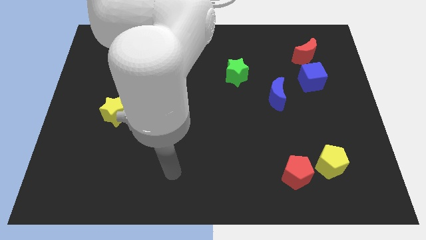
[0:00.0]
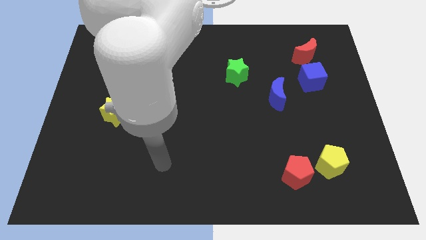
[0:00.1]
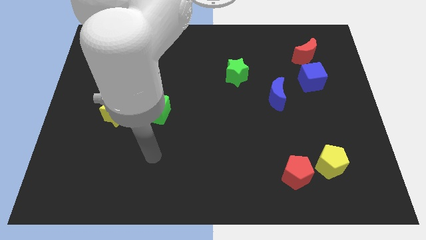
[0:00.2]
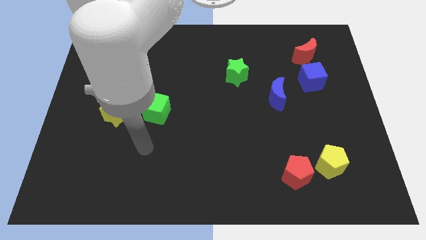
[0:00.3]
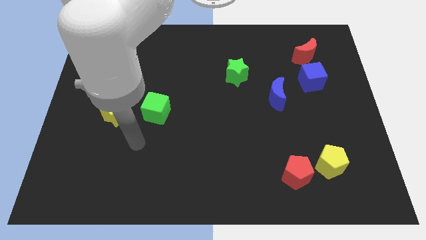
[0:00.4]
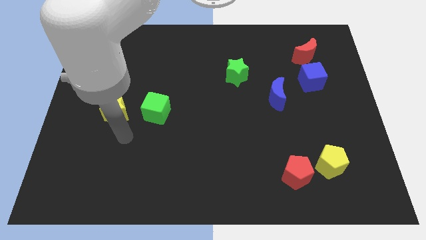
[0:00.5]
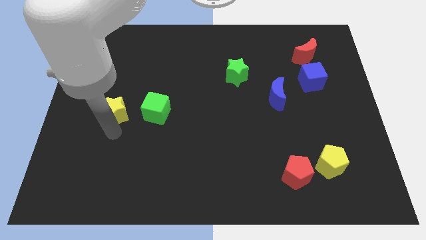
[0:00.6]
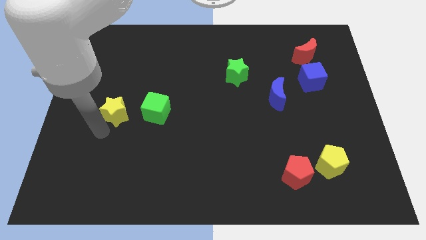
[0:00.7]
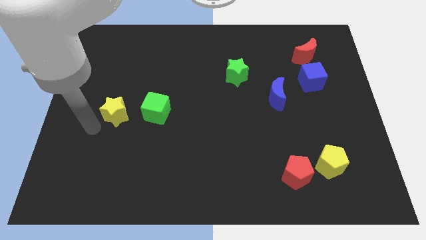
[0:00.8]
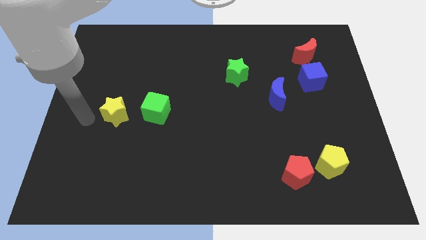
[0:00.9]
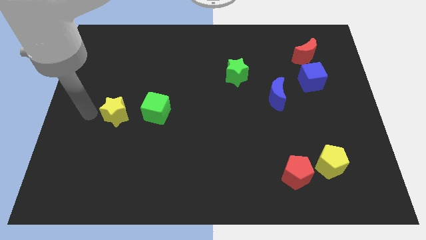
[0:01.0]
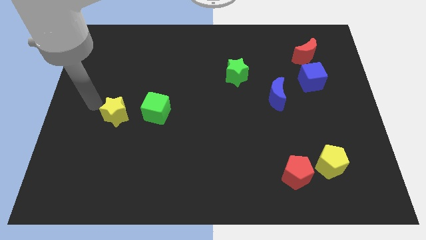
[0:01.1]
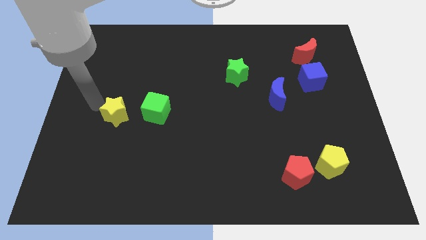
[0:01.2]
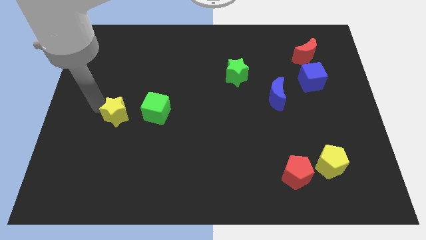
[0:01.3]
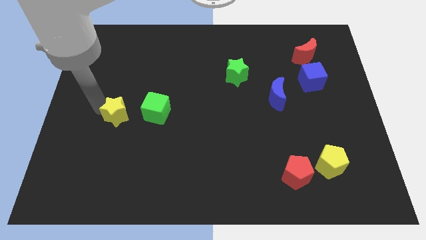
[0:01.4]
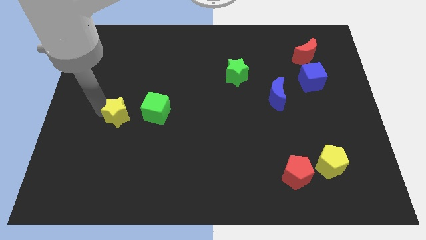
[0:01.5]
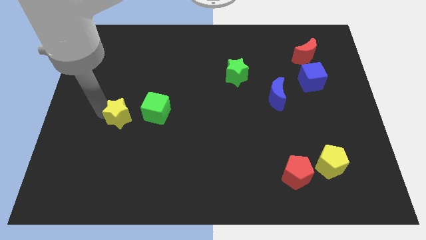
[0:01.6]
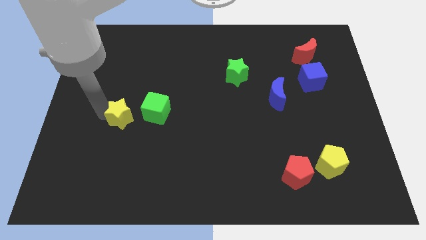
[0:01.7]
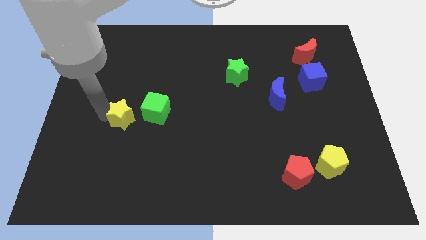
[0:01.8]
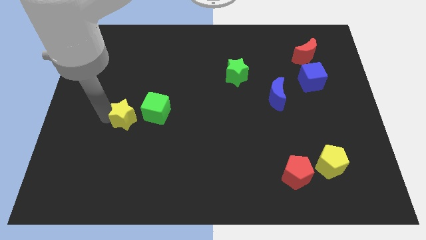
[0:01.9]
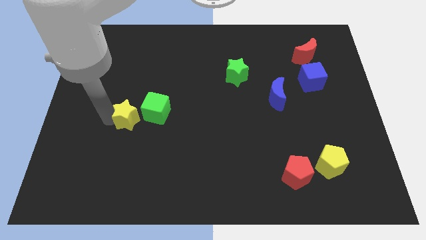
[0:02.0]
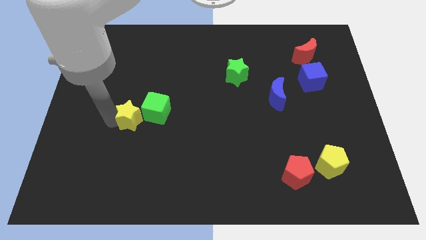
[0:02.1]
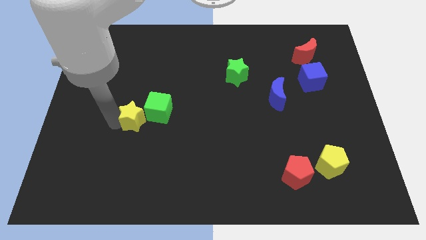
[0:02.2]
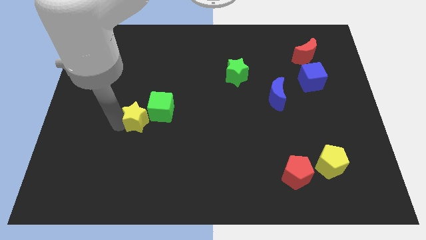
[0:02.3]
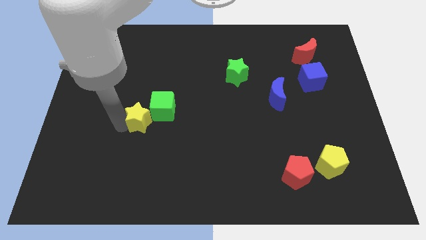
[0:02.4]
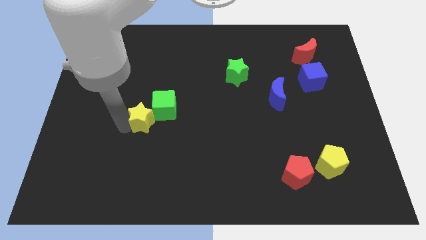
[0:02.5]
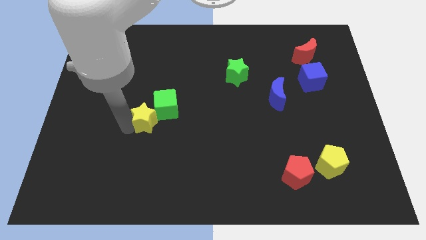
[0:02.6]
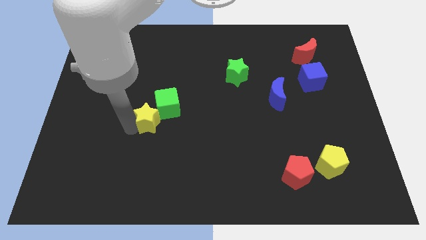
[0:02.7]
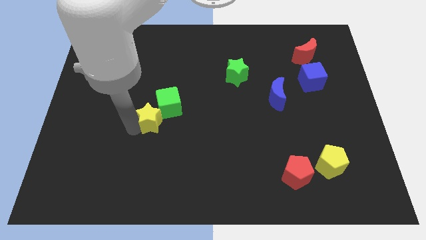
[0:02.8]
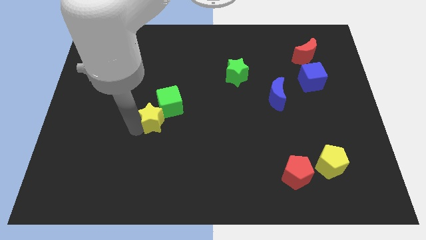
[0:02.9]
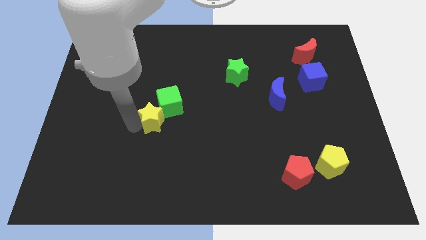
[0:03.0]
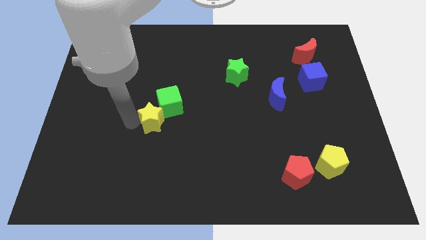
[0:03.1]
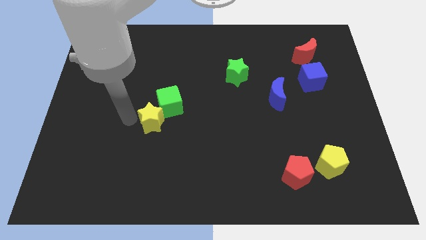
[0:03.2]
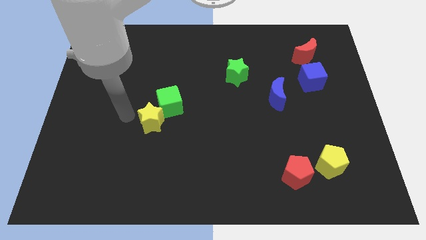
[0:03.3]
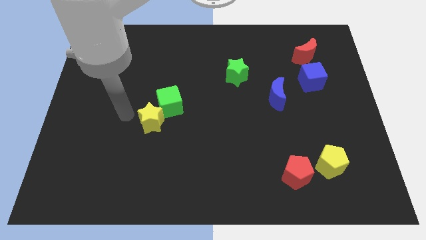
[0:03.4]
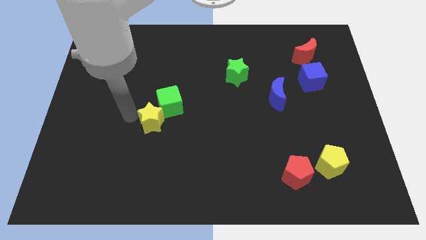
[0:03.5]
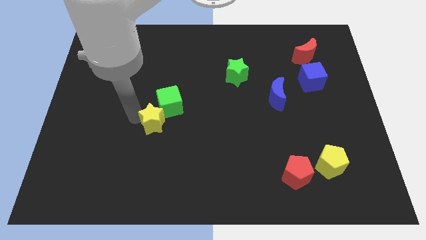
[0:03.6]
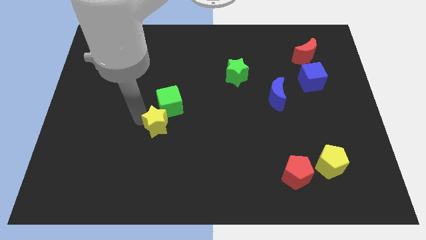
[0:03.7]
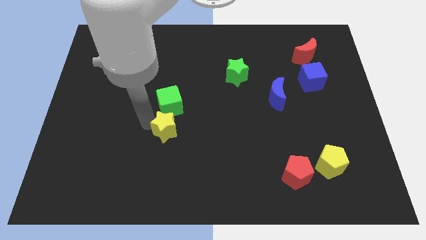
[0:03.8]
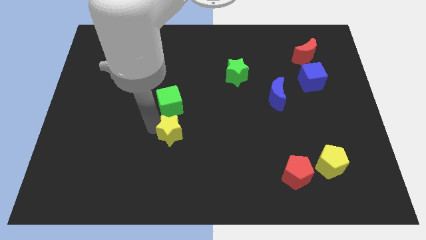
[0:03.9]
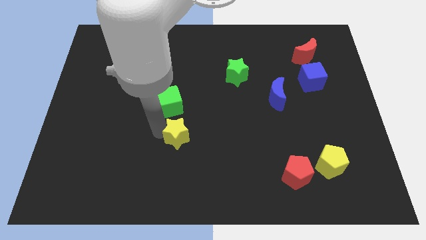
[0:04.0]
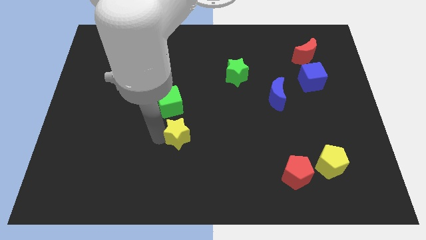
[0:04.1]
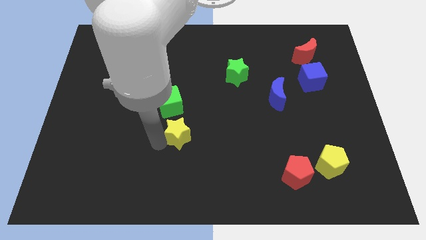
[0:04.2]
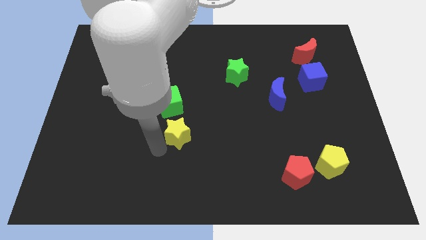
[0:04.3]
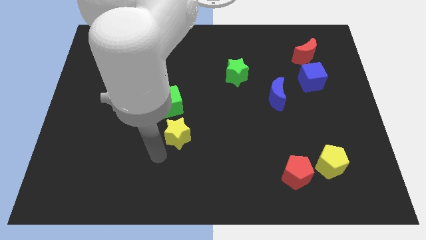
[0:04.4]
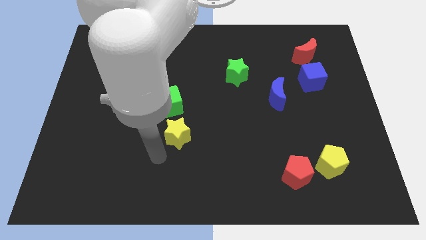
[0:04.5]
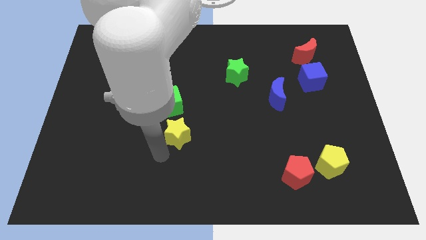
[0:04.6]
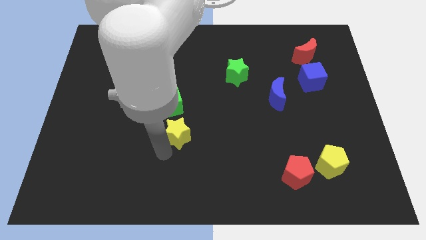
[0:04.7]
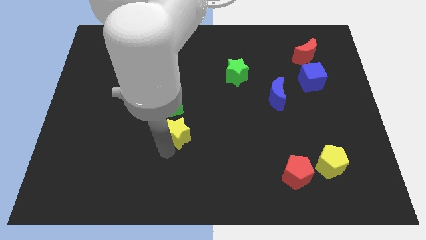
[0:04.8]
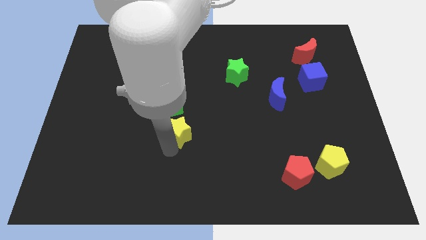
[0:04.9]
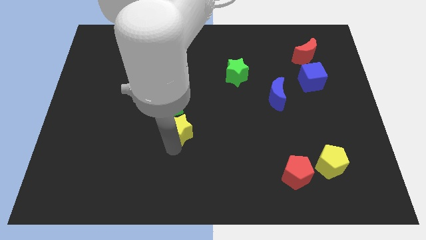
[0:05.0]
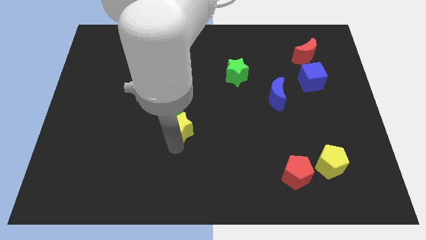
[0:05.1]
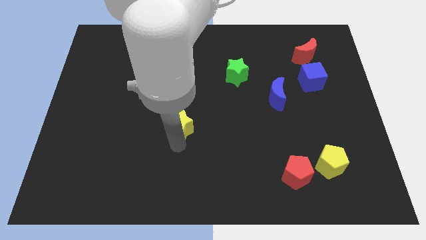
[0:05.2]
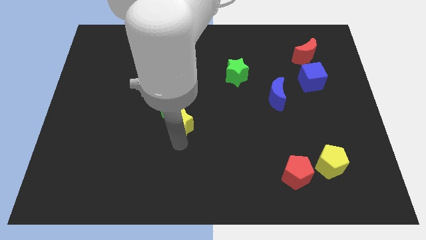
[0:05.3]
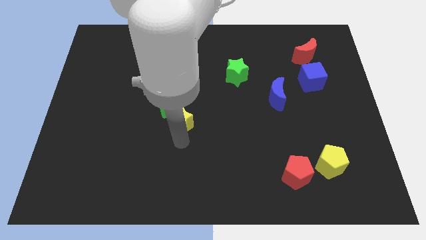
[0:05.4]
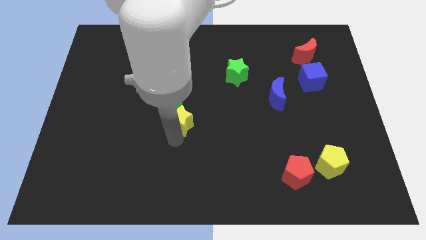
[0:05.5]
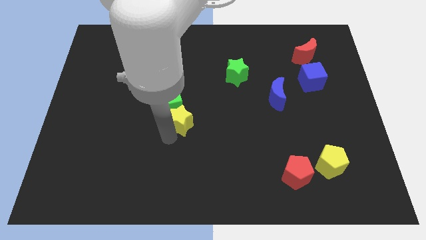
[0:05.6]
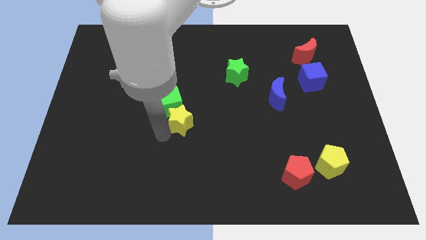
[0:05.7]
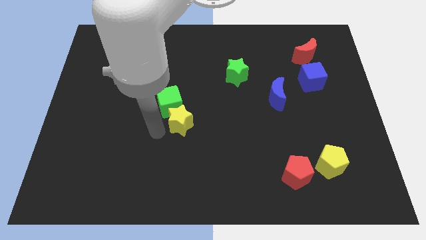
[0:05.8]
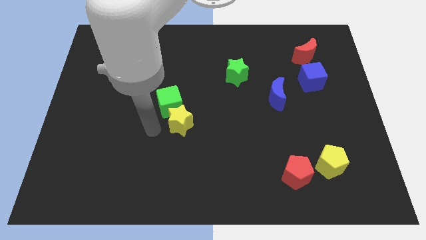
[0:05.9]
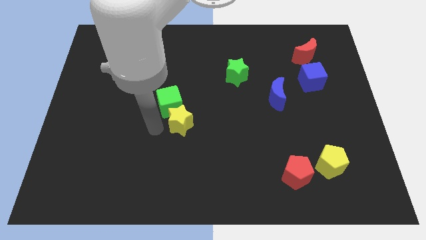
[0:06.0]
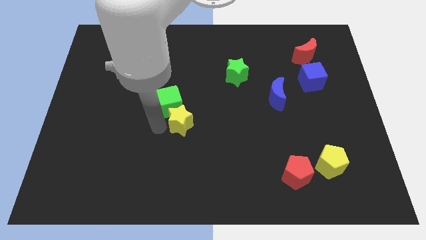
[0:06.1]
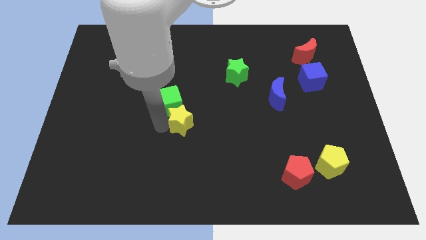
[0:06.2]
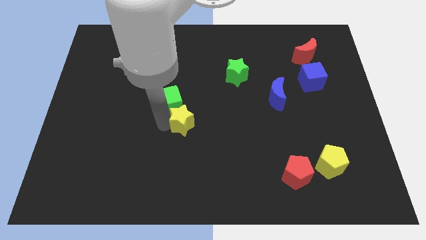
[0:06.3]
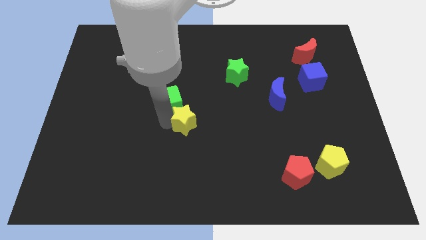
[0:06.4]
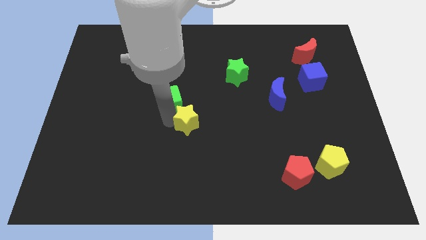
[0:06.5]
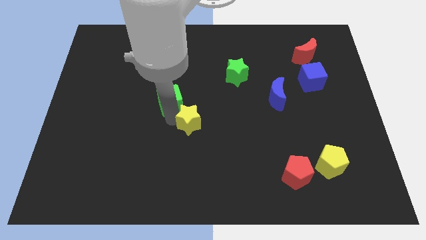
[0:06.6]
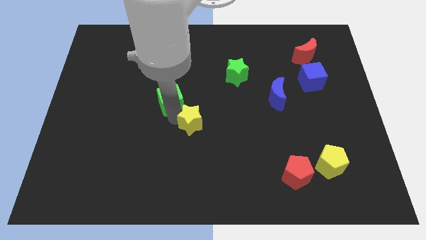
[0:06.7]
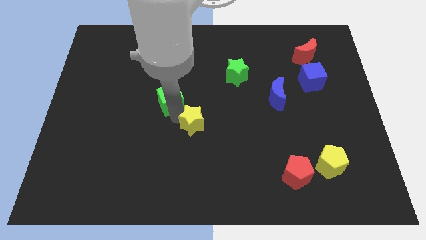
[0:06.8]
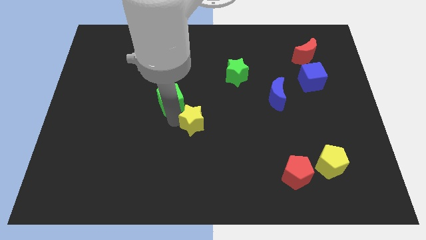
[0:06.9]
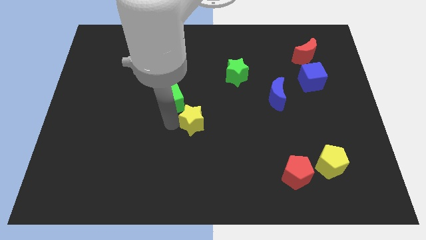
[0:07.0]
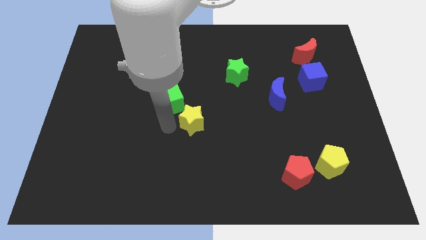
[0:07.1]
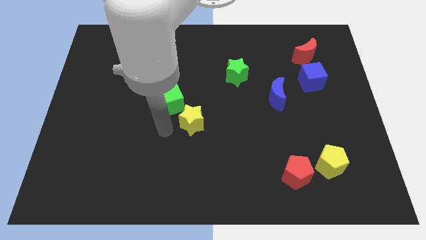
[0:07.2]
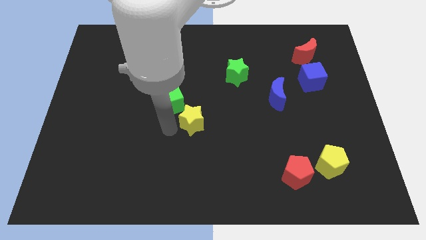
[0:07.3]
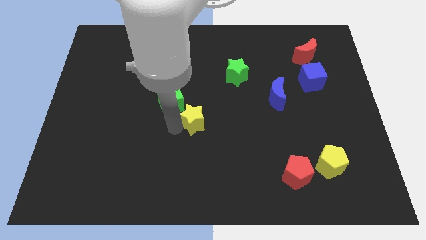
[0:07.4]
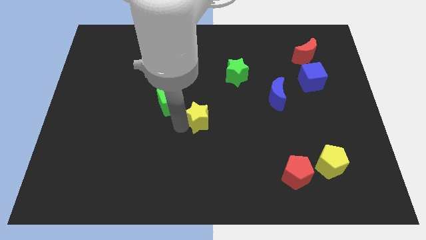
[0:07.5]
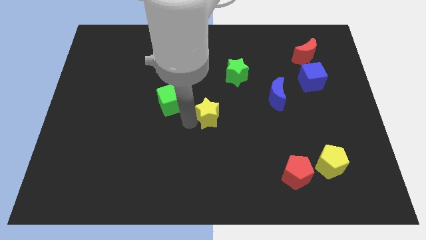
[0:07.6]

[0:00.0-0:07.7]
slide the yellow star to the right

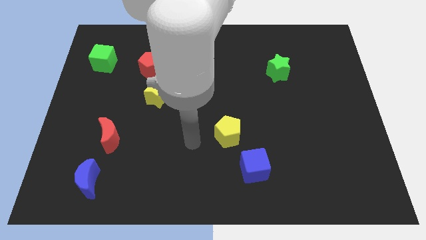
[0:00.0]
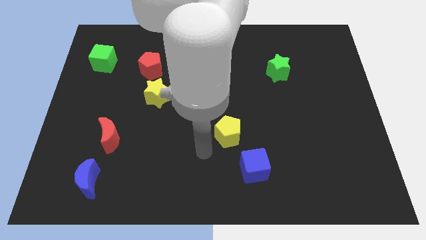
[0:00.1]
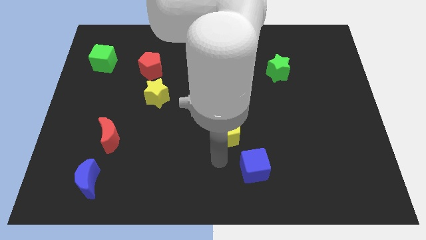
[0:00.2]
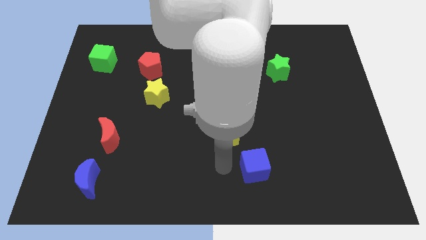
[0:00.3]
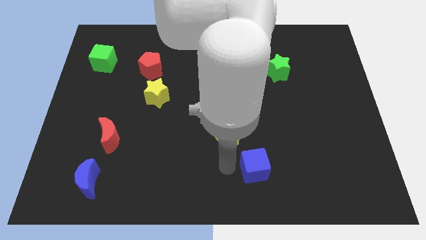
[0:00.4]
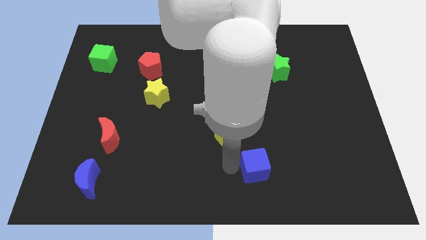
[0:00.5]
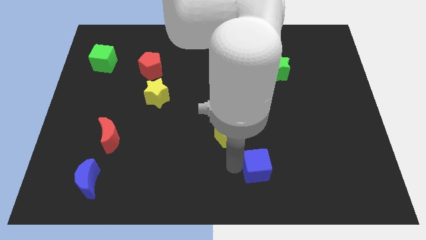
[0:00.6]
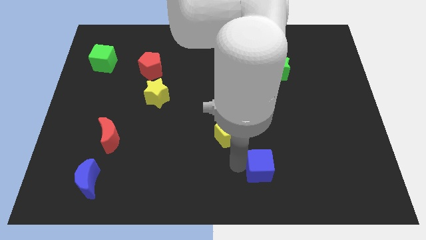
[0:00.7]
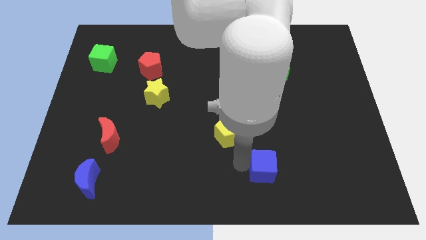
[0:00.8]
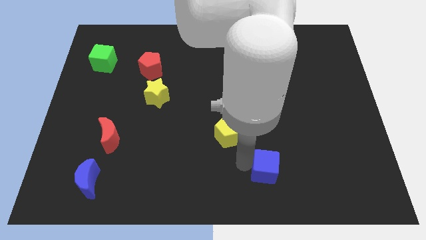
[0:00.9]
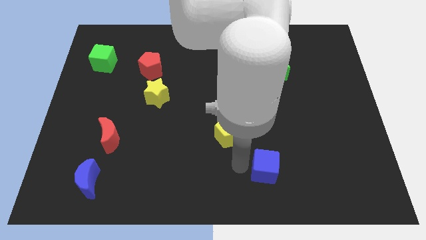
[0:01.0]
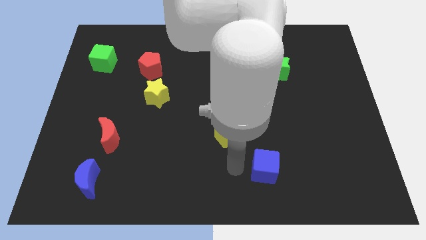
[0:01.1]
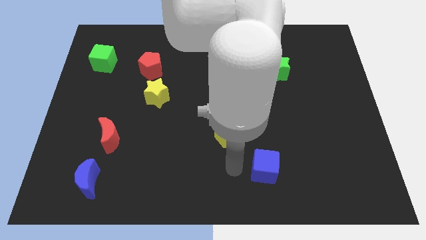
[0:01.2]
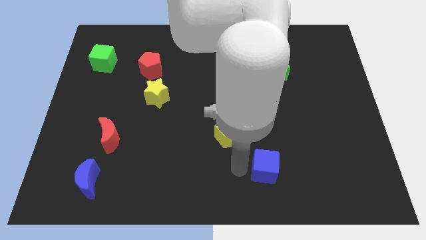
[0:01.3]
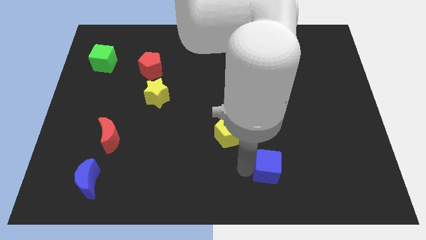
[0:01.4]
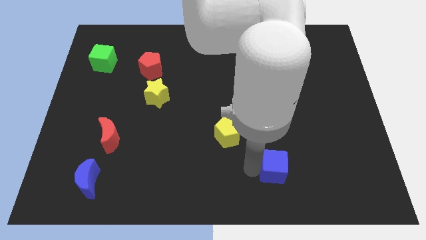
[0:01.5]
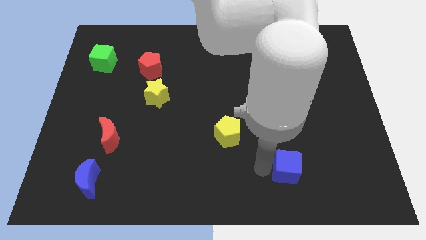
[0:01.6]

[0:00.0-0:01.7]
slightly slide the blue cube to the right
